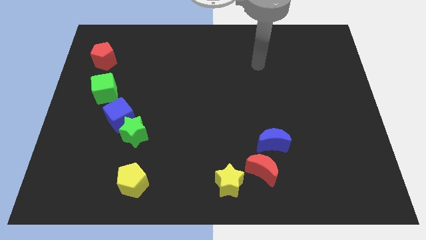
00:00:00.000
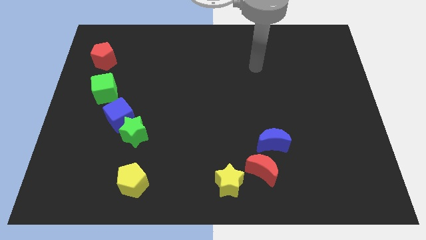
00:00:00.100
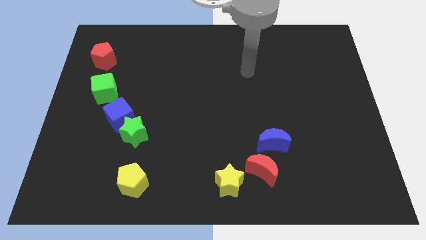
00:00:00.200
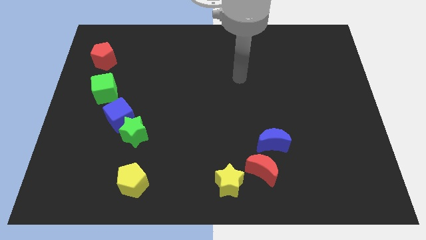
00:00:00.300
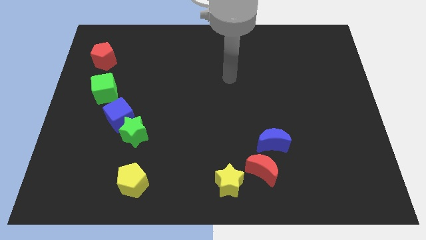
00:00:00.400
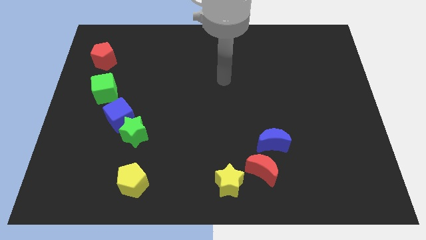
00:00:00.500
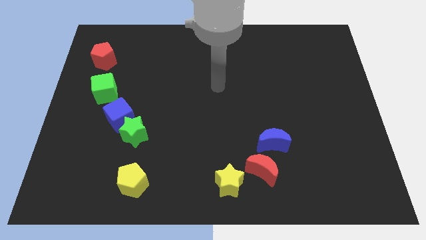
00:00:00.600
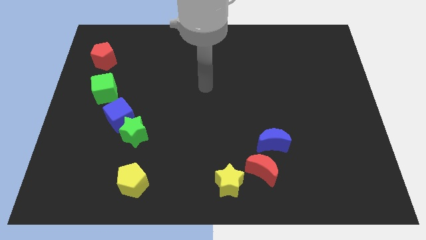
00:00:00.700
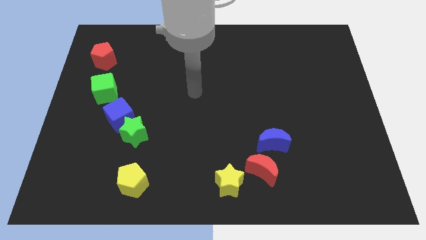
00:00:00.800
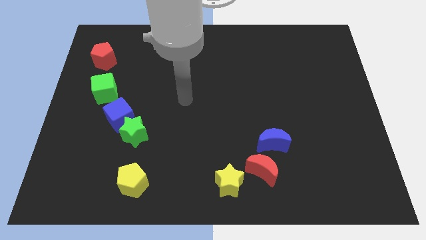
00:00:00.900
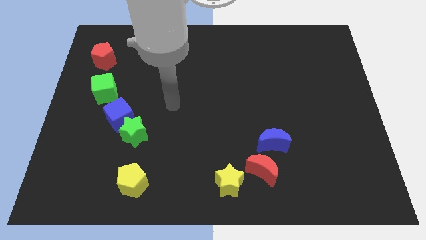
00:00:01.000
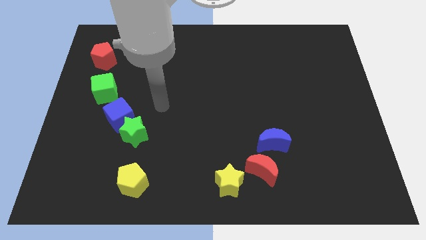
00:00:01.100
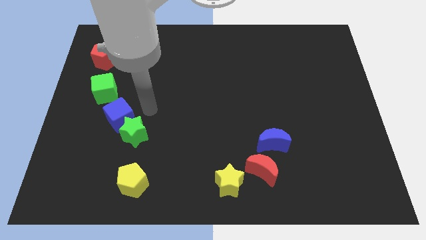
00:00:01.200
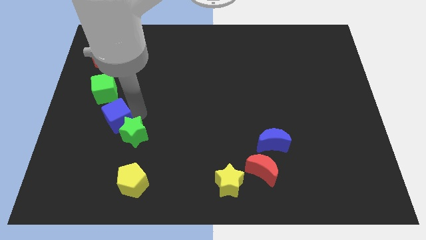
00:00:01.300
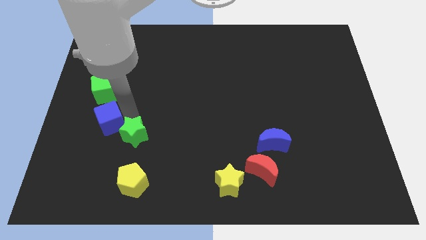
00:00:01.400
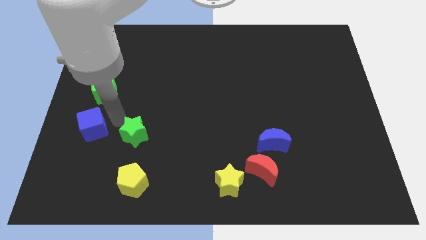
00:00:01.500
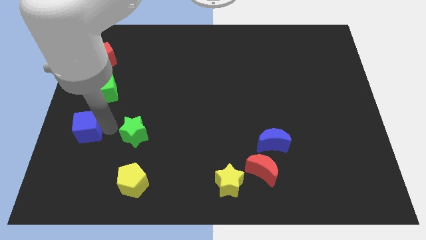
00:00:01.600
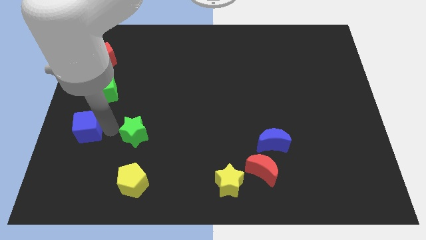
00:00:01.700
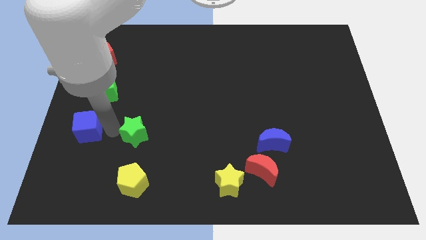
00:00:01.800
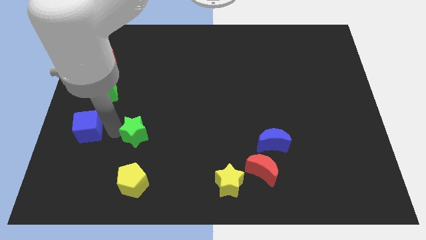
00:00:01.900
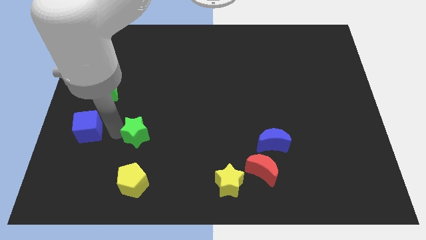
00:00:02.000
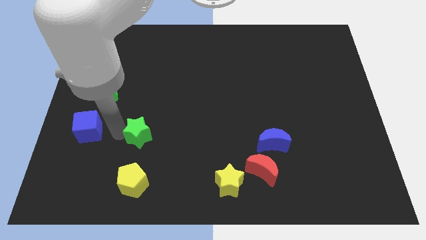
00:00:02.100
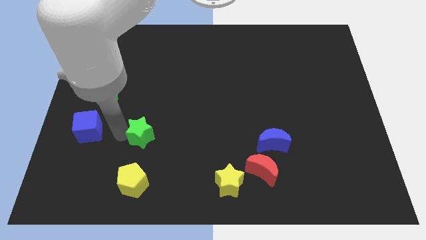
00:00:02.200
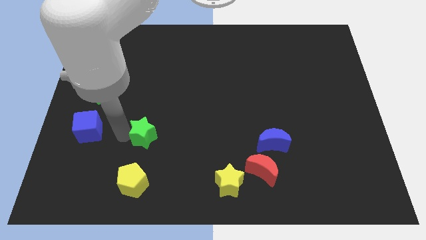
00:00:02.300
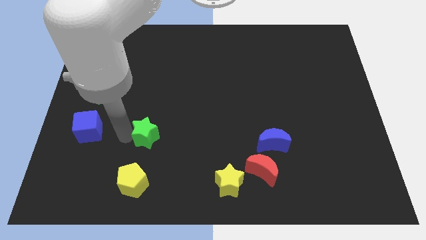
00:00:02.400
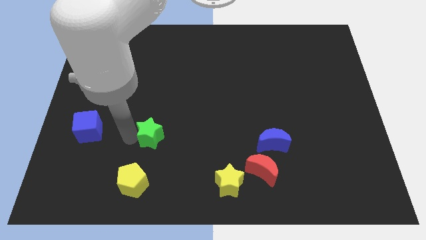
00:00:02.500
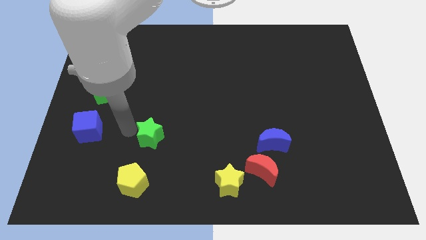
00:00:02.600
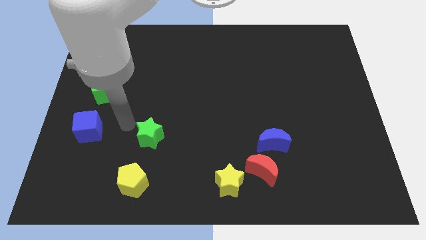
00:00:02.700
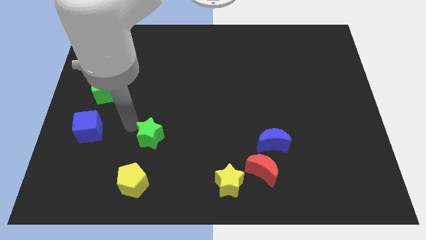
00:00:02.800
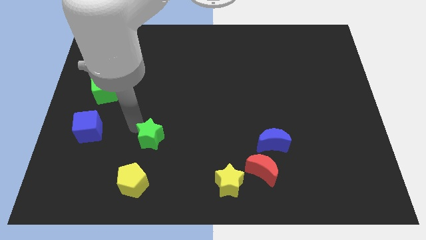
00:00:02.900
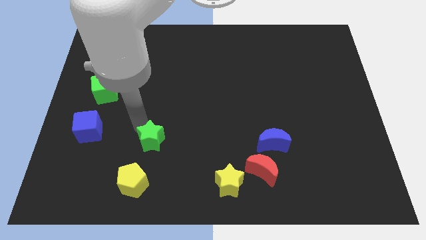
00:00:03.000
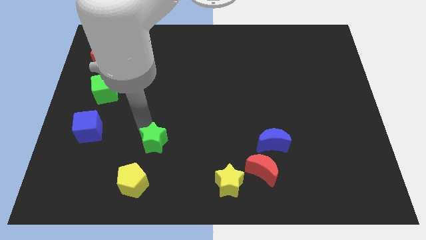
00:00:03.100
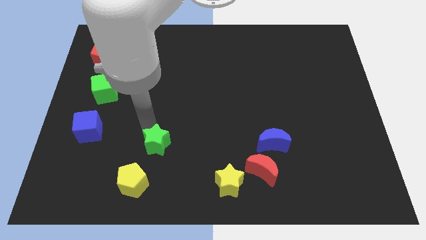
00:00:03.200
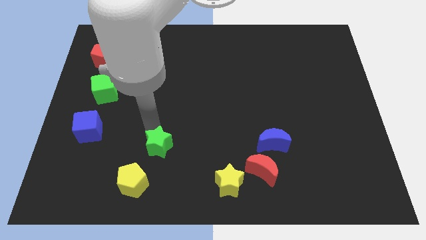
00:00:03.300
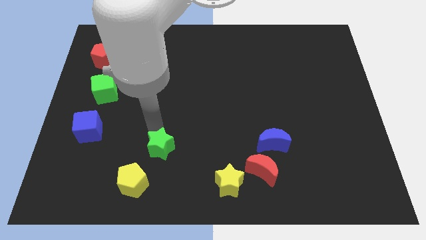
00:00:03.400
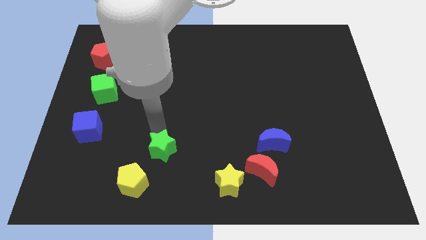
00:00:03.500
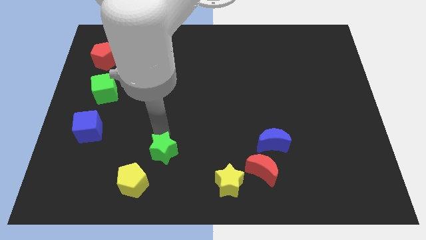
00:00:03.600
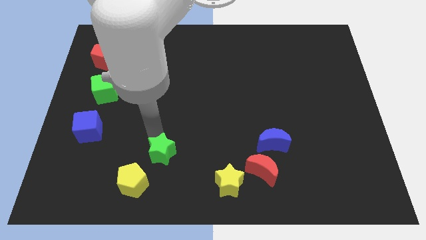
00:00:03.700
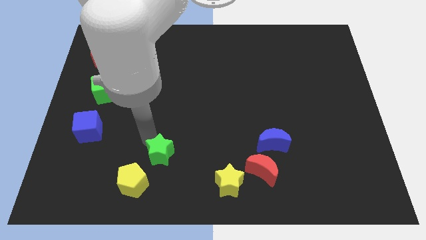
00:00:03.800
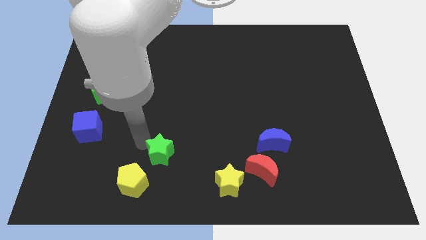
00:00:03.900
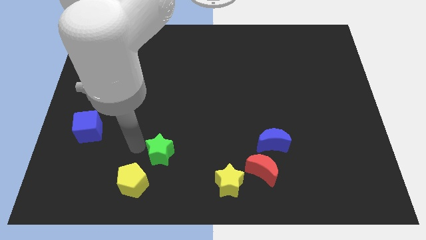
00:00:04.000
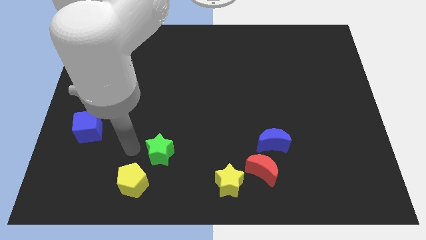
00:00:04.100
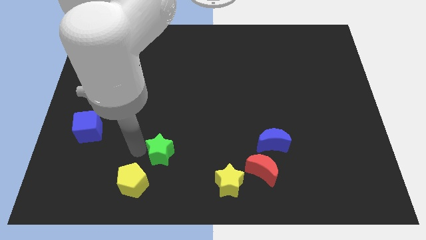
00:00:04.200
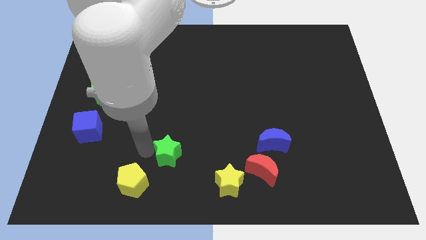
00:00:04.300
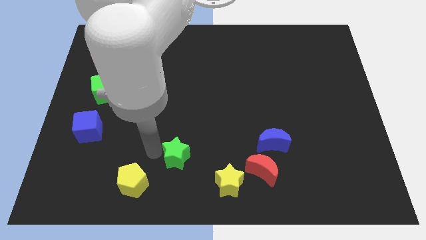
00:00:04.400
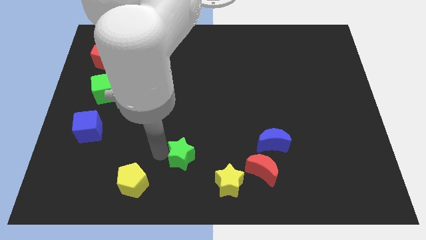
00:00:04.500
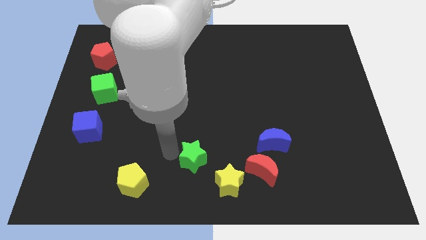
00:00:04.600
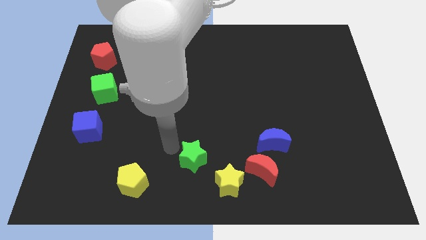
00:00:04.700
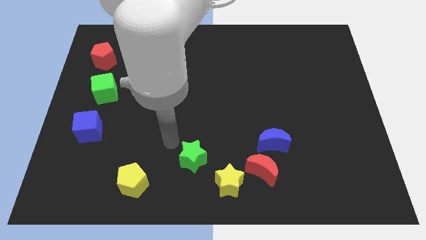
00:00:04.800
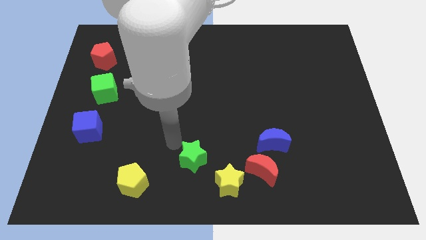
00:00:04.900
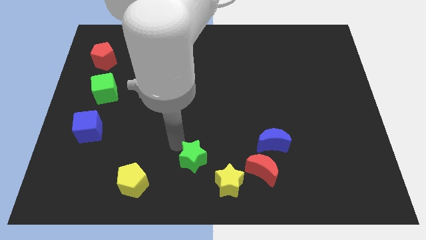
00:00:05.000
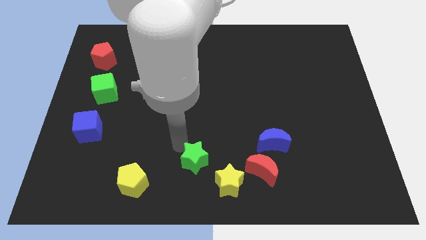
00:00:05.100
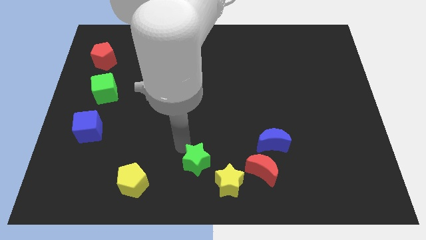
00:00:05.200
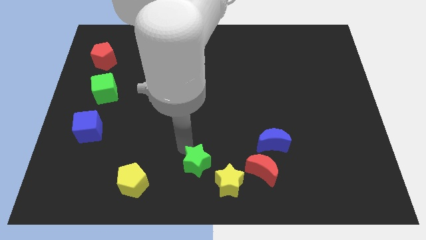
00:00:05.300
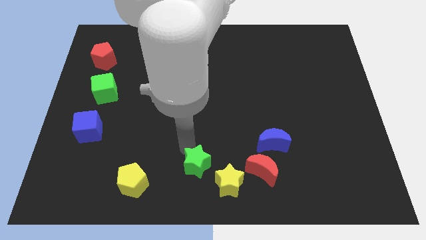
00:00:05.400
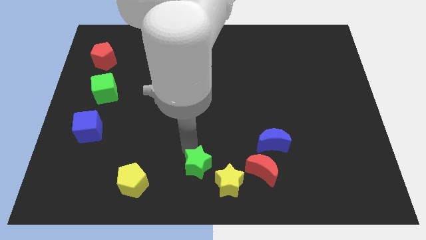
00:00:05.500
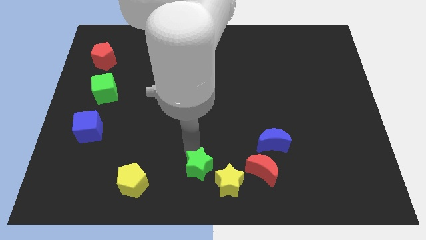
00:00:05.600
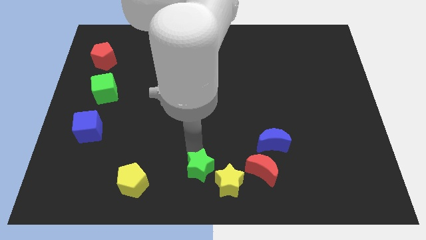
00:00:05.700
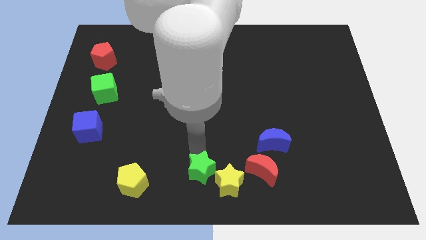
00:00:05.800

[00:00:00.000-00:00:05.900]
push the green star next to the yellow star
